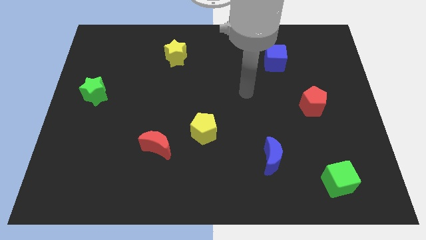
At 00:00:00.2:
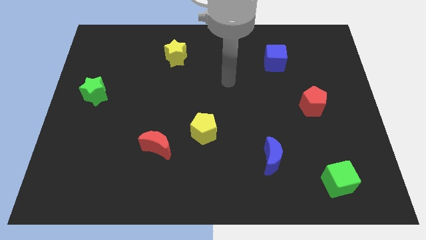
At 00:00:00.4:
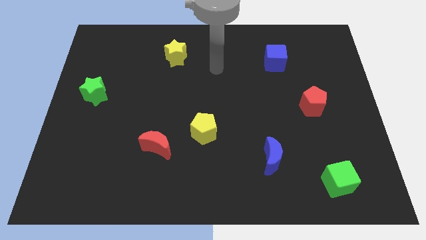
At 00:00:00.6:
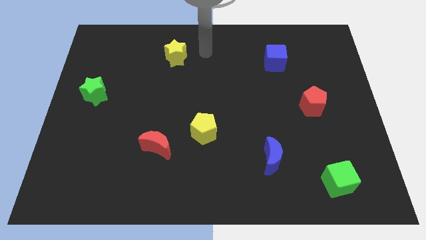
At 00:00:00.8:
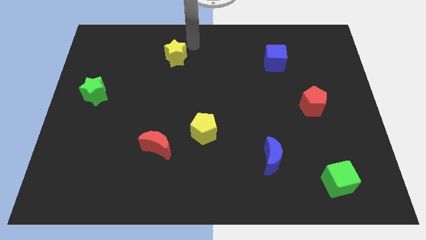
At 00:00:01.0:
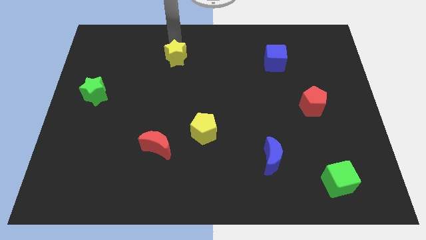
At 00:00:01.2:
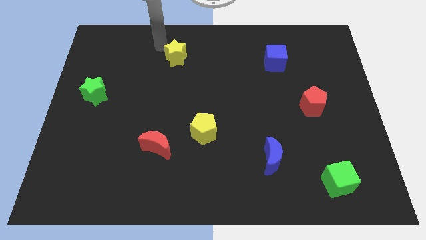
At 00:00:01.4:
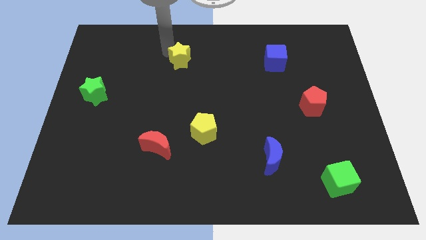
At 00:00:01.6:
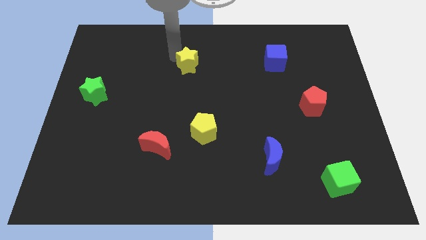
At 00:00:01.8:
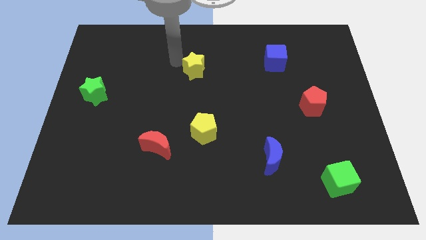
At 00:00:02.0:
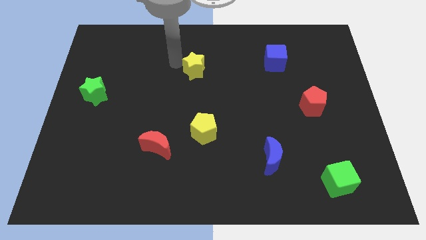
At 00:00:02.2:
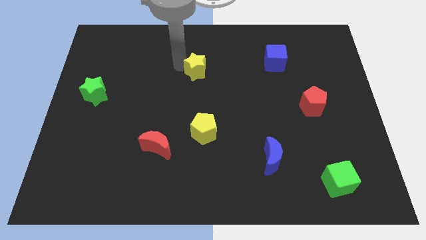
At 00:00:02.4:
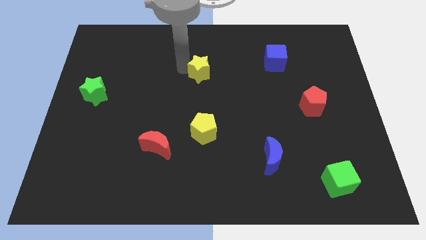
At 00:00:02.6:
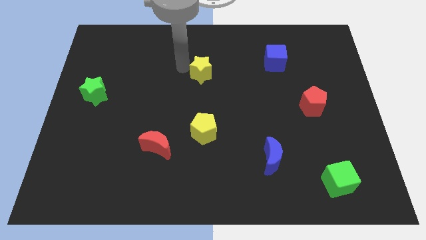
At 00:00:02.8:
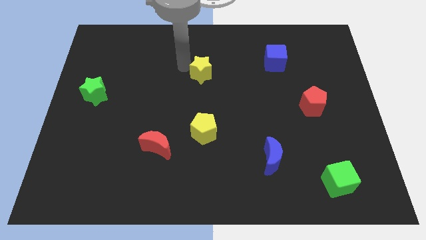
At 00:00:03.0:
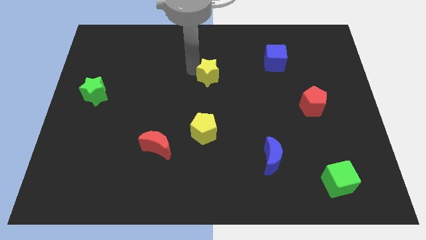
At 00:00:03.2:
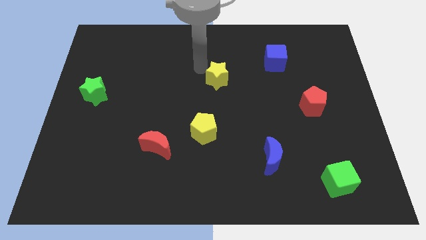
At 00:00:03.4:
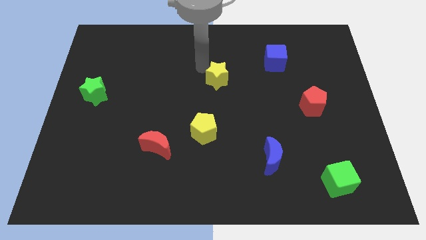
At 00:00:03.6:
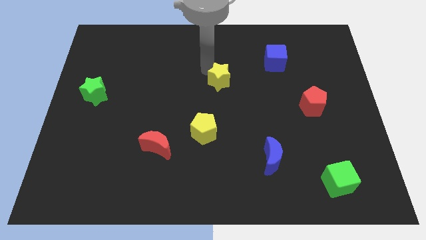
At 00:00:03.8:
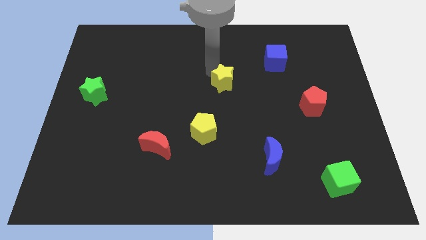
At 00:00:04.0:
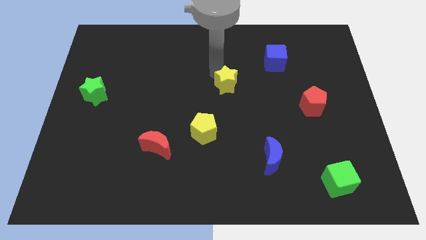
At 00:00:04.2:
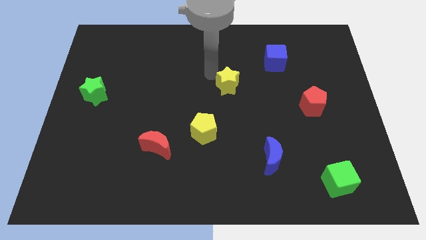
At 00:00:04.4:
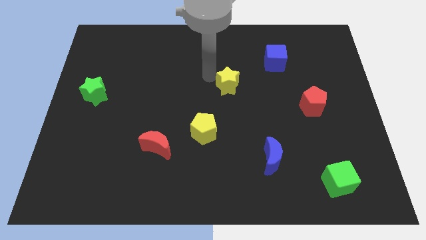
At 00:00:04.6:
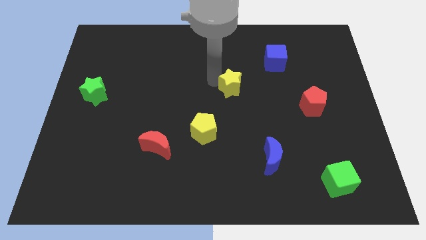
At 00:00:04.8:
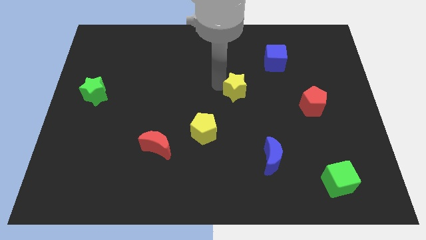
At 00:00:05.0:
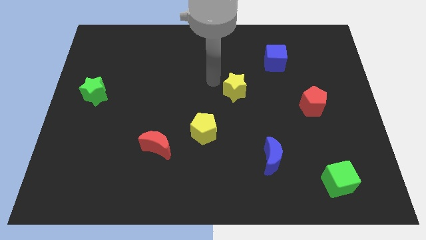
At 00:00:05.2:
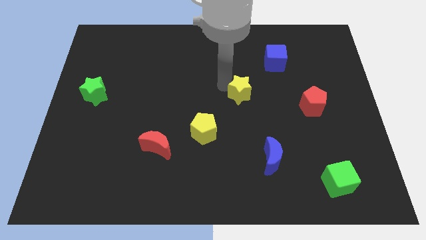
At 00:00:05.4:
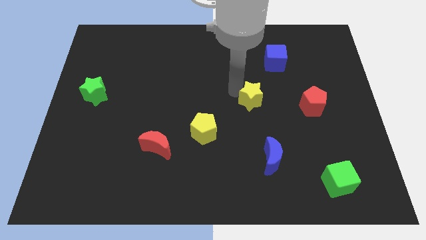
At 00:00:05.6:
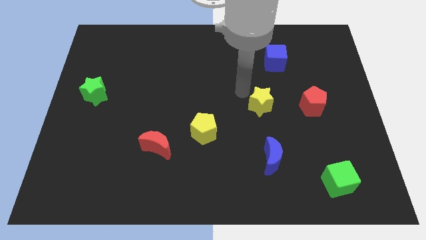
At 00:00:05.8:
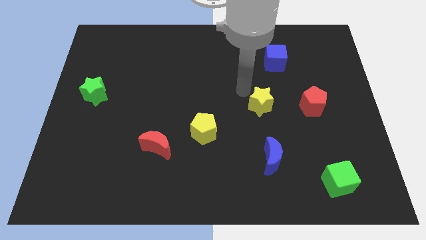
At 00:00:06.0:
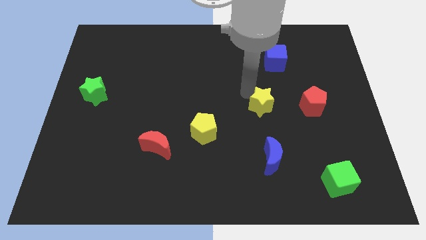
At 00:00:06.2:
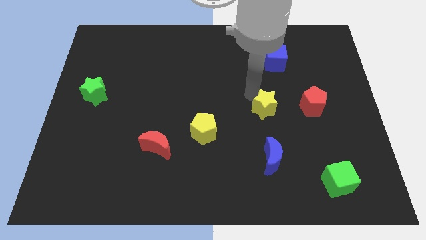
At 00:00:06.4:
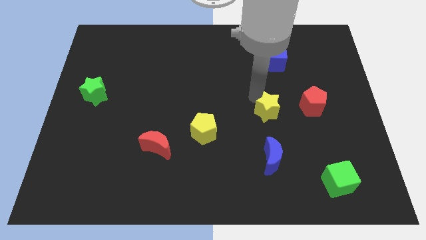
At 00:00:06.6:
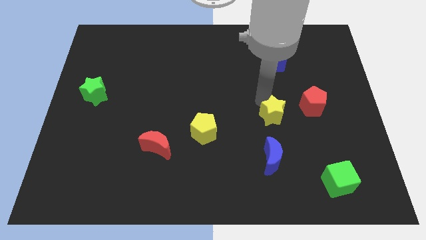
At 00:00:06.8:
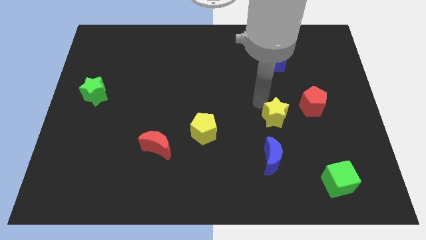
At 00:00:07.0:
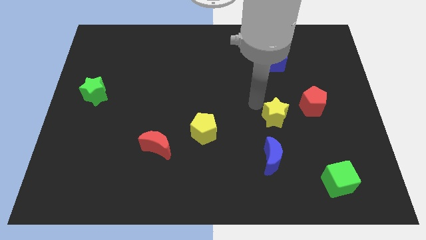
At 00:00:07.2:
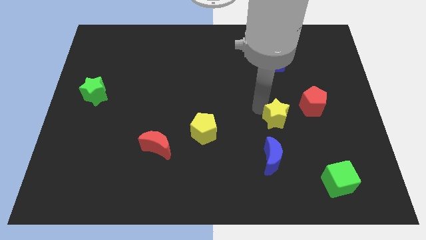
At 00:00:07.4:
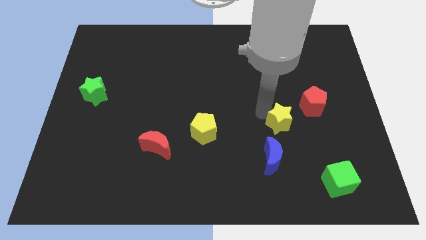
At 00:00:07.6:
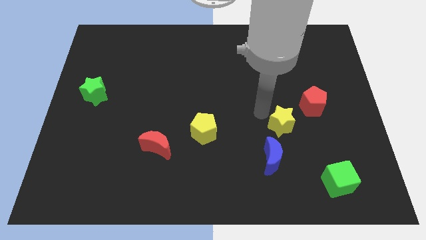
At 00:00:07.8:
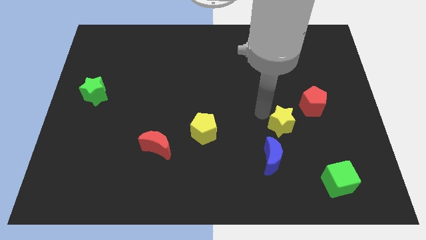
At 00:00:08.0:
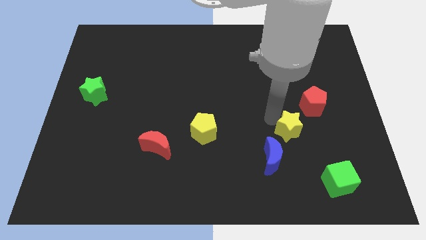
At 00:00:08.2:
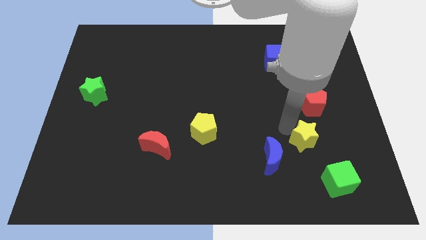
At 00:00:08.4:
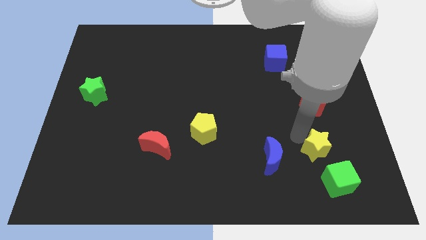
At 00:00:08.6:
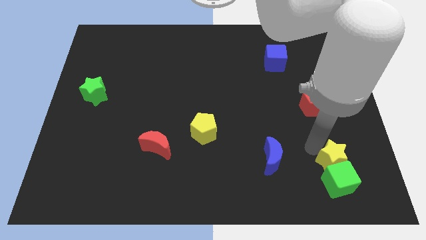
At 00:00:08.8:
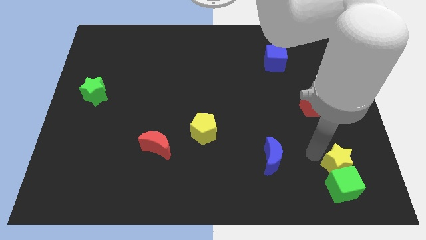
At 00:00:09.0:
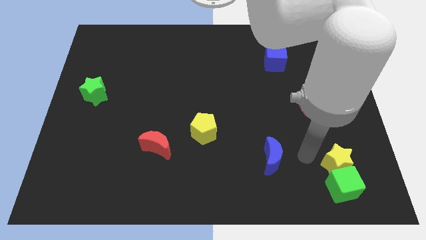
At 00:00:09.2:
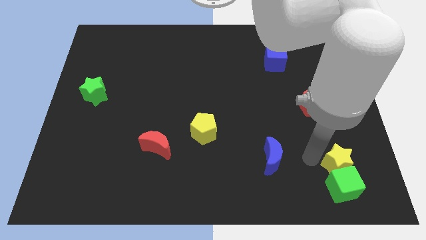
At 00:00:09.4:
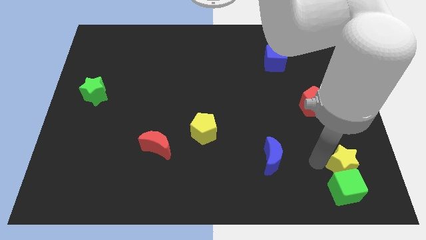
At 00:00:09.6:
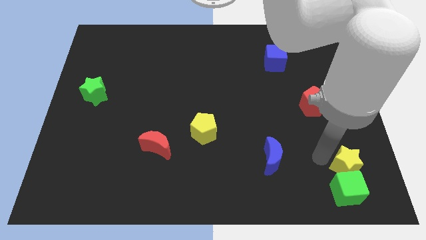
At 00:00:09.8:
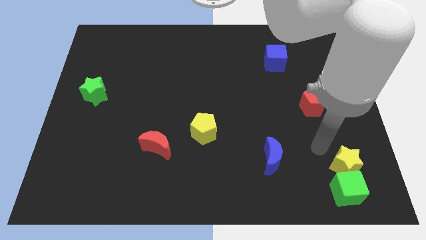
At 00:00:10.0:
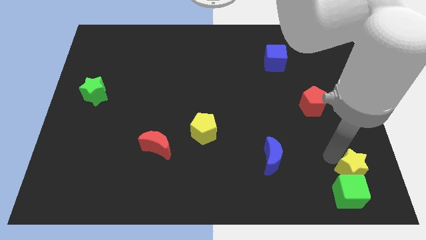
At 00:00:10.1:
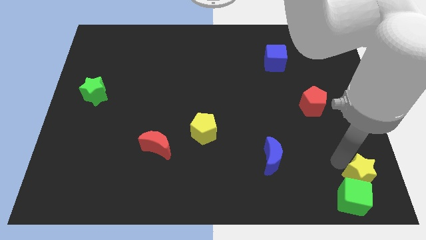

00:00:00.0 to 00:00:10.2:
push the yellow star to the lower right corner

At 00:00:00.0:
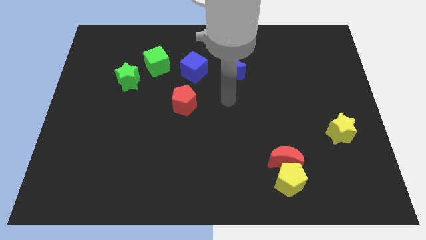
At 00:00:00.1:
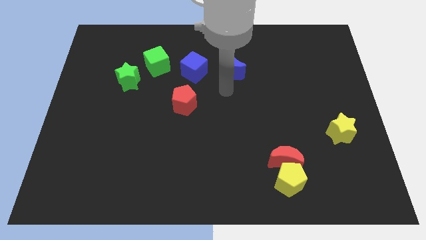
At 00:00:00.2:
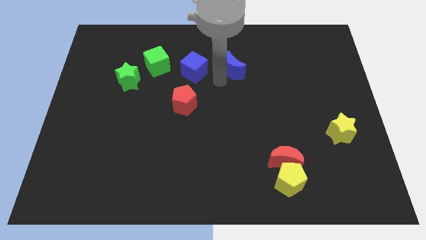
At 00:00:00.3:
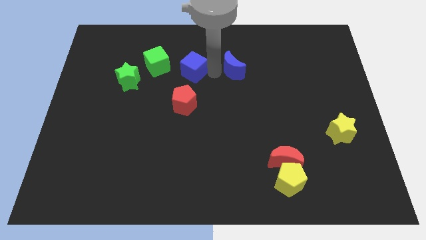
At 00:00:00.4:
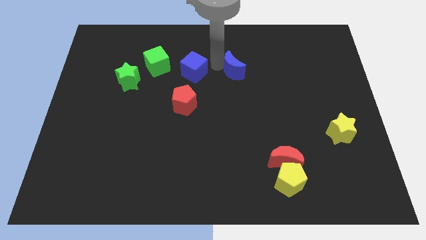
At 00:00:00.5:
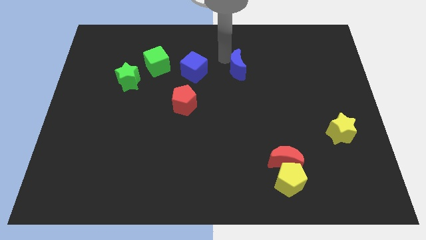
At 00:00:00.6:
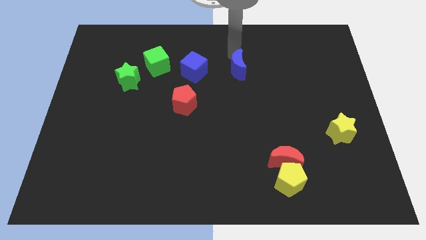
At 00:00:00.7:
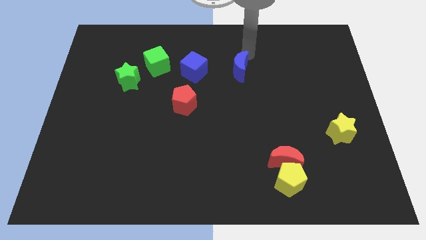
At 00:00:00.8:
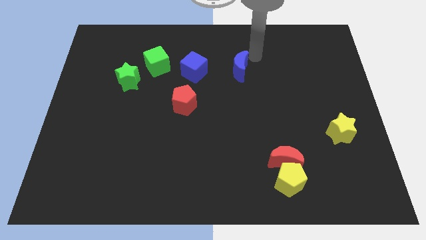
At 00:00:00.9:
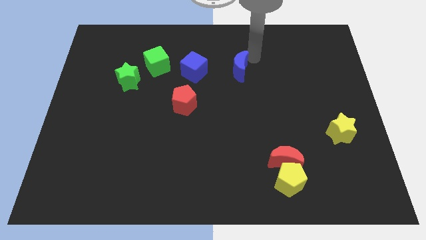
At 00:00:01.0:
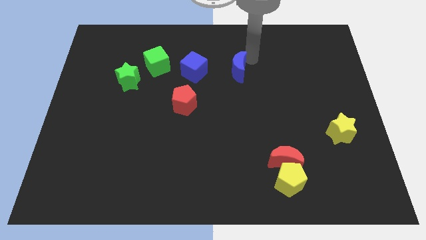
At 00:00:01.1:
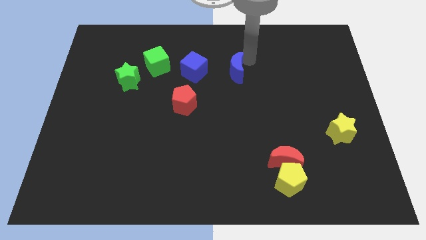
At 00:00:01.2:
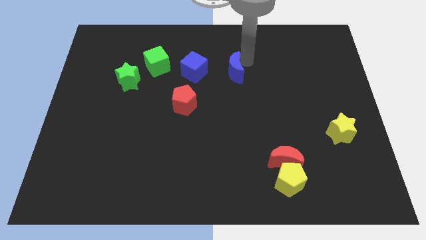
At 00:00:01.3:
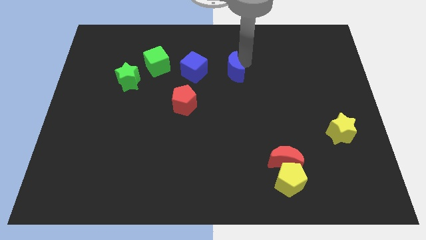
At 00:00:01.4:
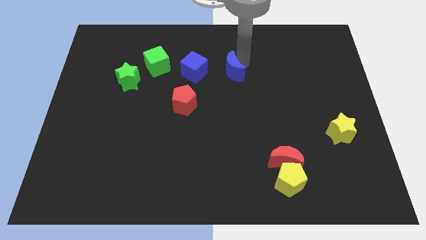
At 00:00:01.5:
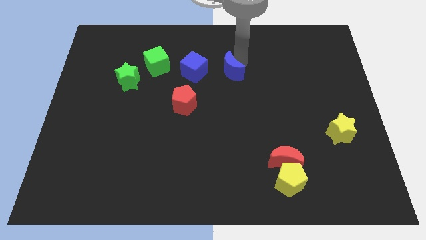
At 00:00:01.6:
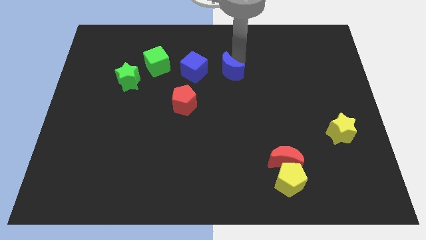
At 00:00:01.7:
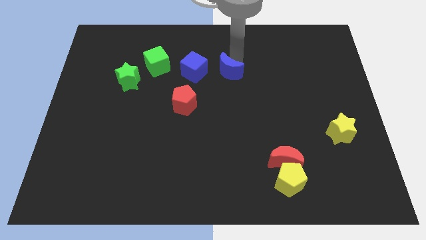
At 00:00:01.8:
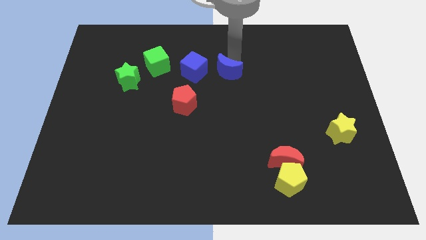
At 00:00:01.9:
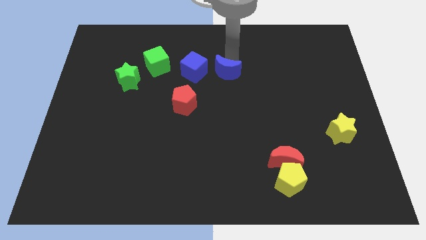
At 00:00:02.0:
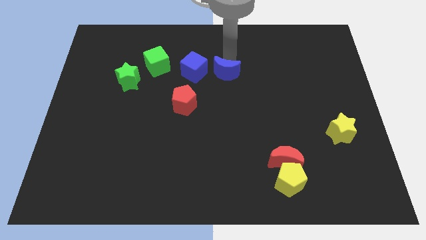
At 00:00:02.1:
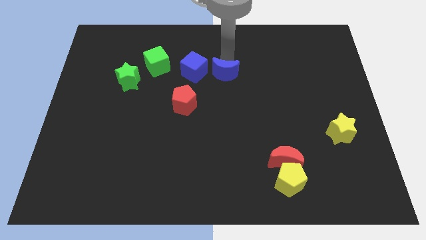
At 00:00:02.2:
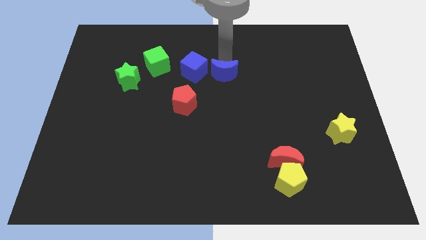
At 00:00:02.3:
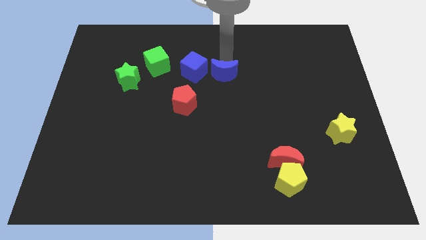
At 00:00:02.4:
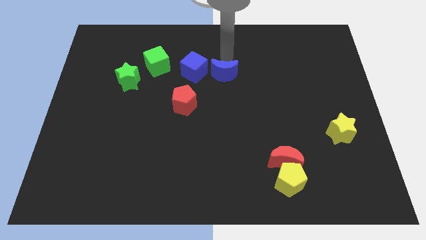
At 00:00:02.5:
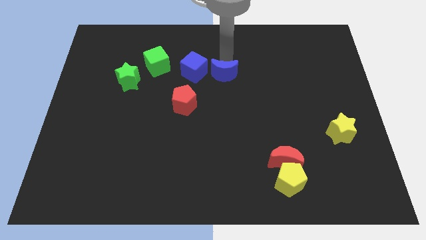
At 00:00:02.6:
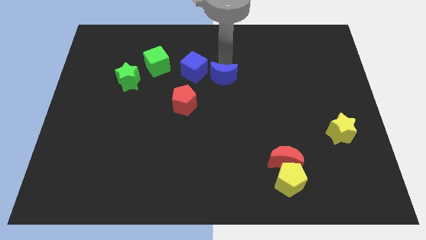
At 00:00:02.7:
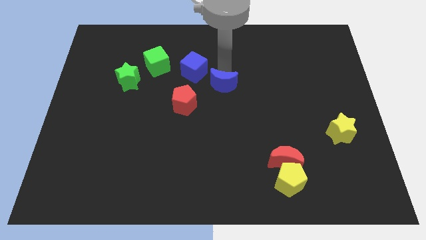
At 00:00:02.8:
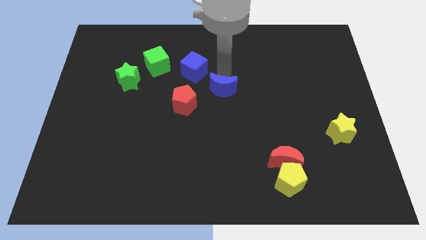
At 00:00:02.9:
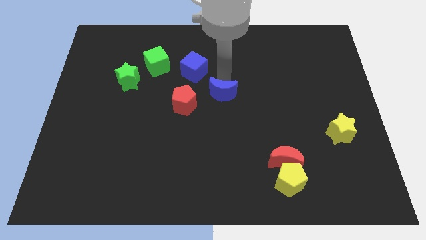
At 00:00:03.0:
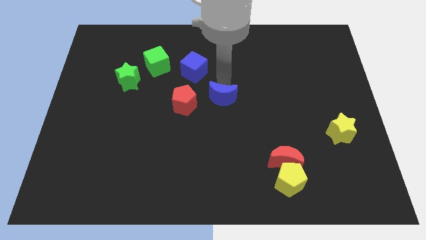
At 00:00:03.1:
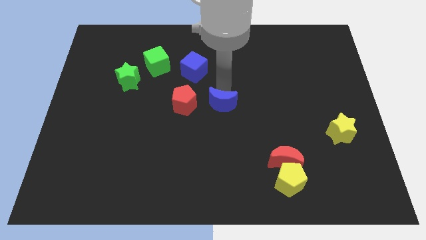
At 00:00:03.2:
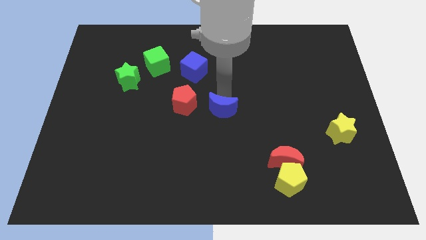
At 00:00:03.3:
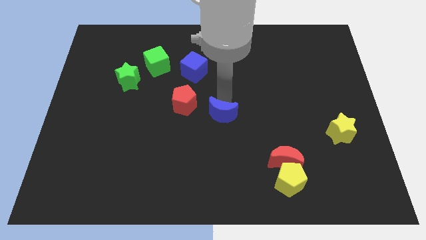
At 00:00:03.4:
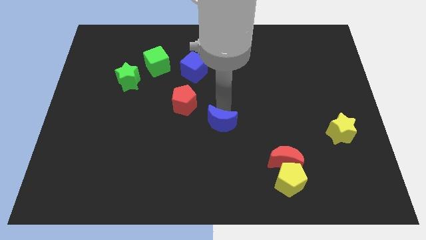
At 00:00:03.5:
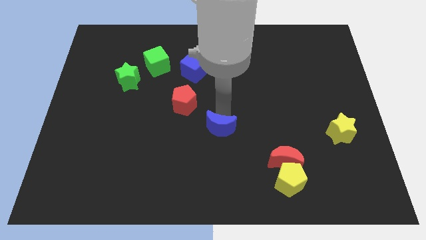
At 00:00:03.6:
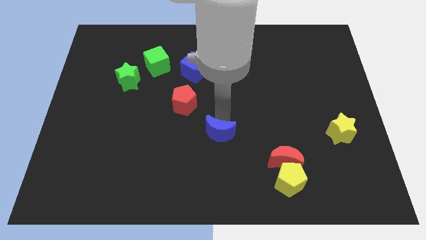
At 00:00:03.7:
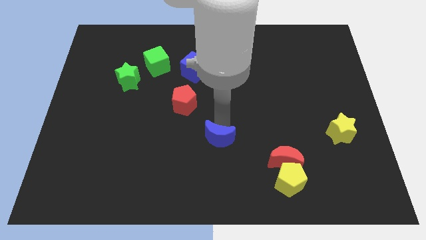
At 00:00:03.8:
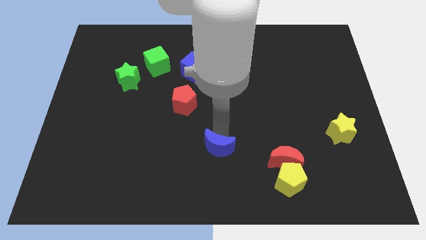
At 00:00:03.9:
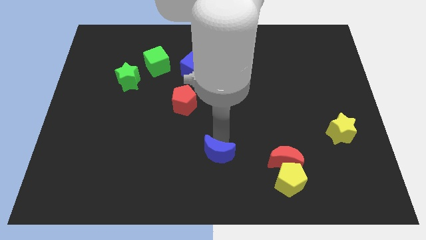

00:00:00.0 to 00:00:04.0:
push the blue moon to the bottom
